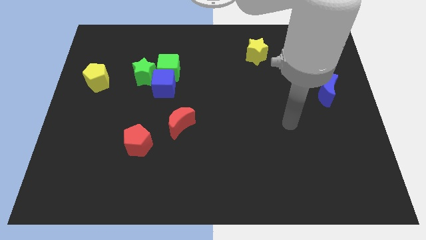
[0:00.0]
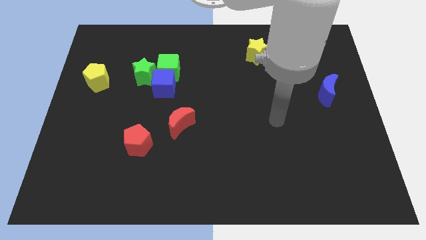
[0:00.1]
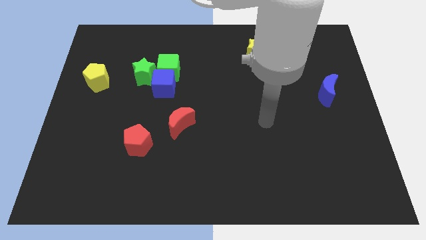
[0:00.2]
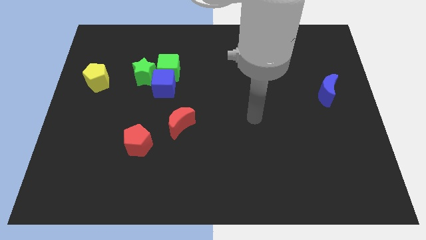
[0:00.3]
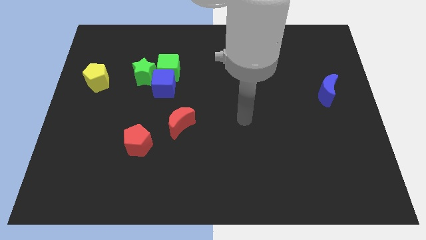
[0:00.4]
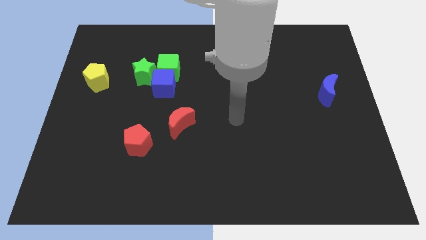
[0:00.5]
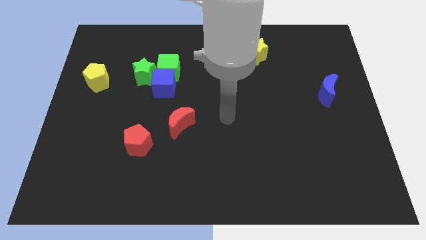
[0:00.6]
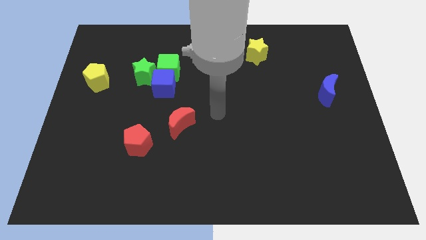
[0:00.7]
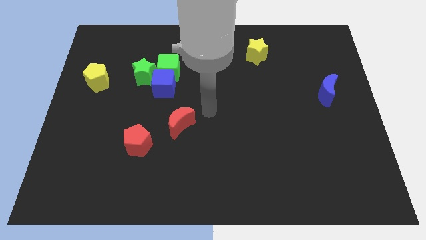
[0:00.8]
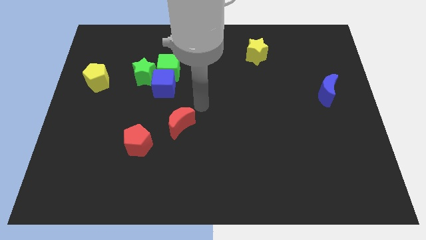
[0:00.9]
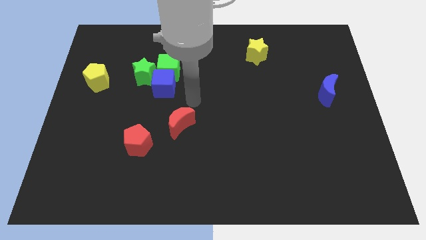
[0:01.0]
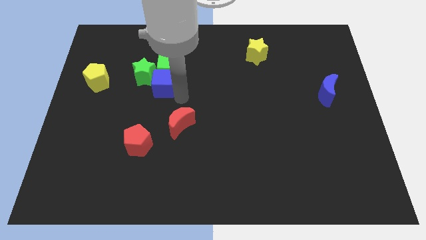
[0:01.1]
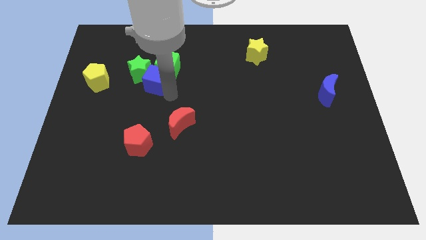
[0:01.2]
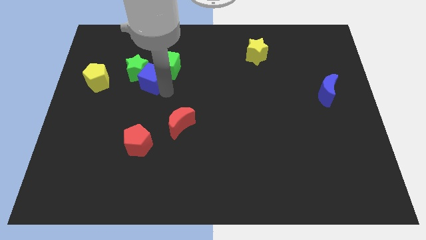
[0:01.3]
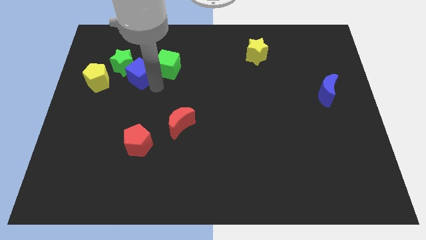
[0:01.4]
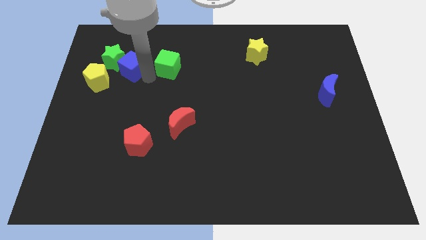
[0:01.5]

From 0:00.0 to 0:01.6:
separate the green cube from the blue cube and green star

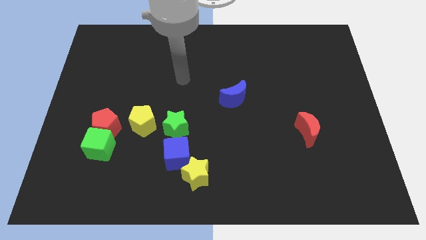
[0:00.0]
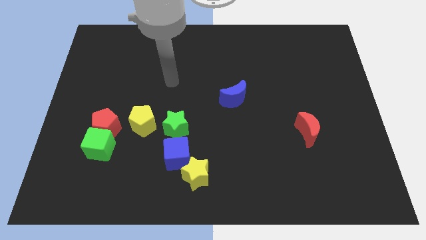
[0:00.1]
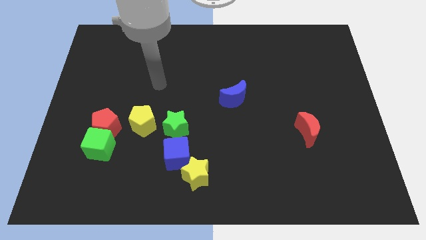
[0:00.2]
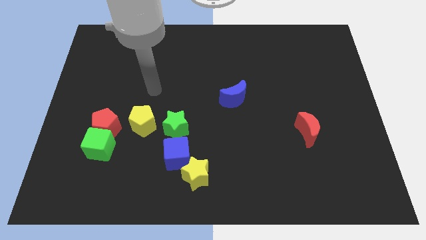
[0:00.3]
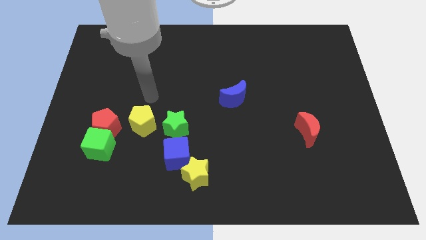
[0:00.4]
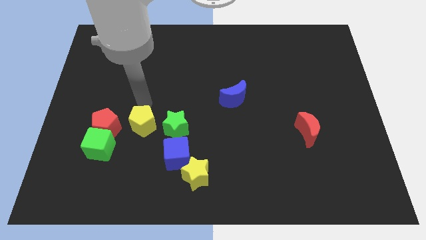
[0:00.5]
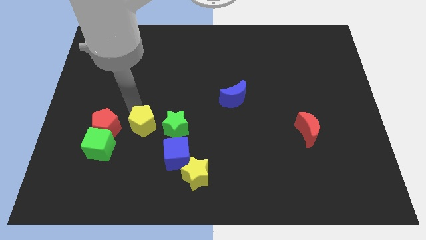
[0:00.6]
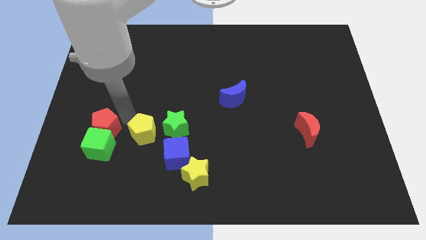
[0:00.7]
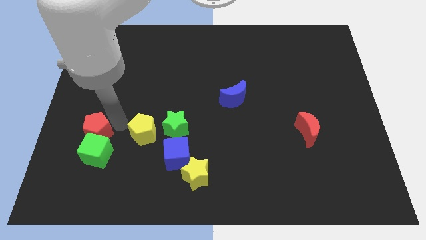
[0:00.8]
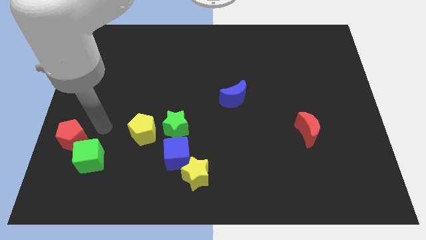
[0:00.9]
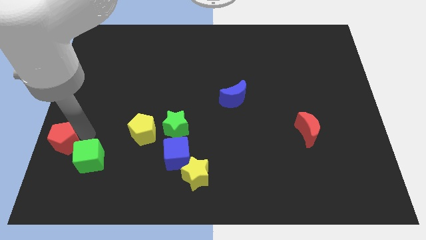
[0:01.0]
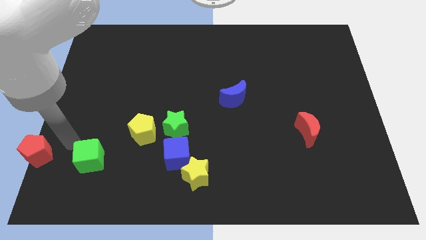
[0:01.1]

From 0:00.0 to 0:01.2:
move the green cube away from the red pentagon

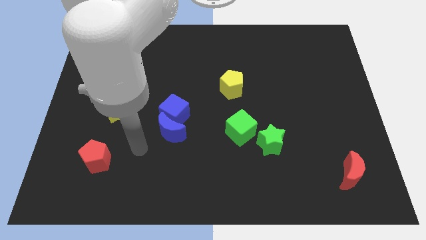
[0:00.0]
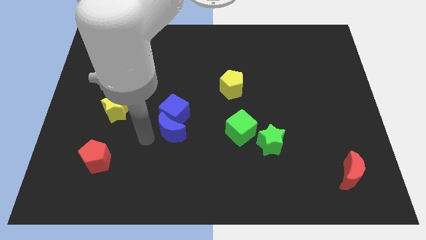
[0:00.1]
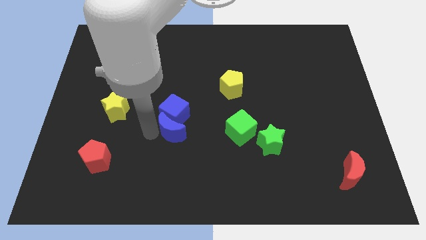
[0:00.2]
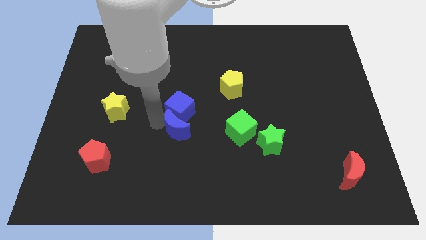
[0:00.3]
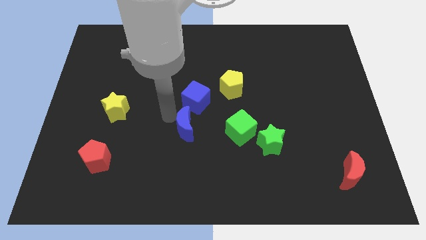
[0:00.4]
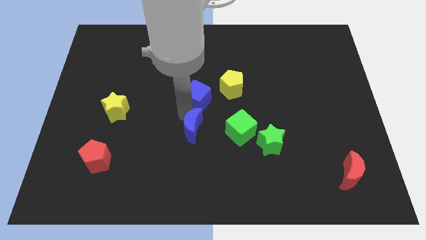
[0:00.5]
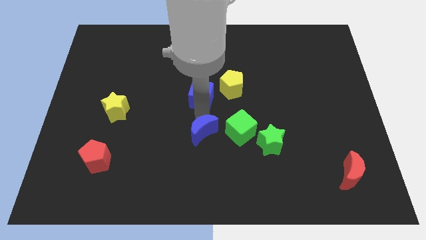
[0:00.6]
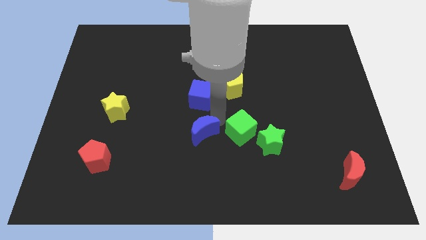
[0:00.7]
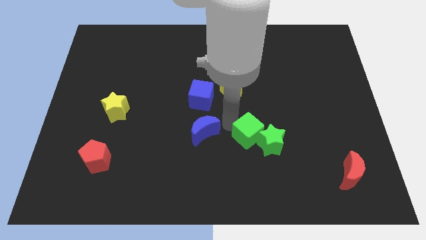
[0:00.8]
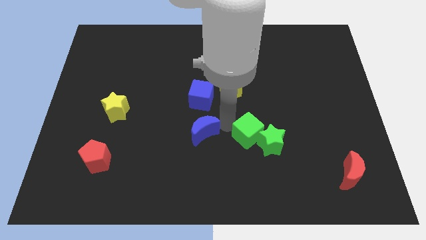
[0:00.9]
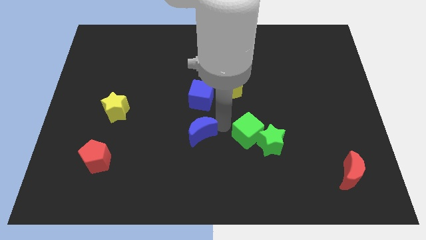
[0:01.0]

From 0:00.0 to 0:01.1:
move the blue moon away from the blue cube

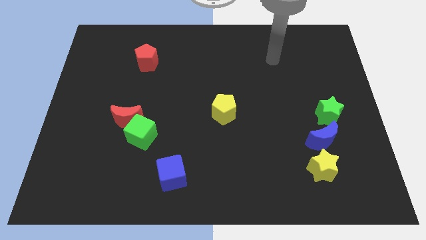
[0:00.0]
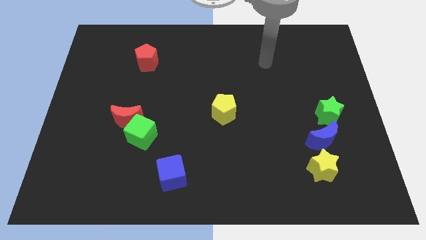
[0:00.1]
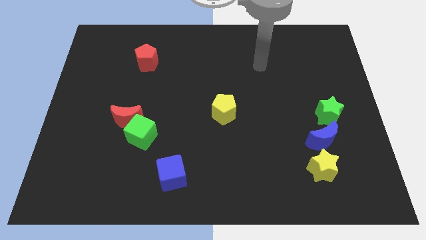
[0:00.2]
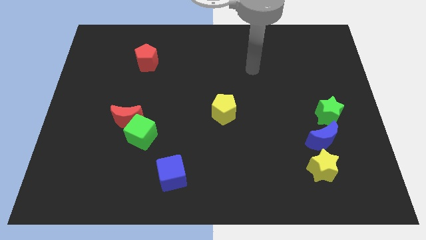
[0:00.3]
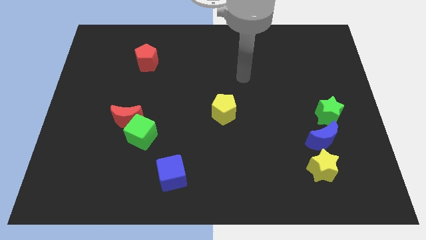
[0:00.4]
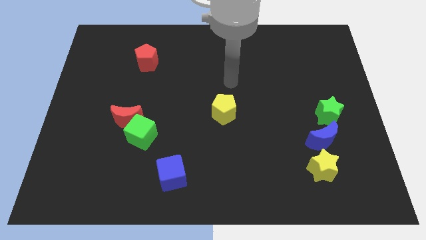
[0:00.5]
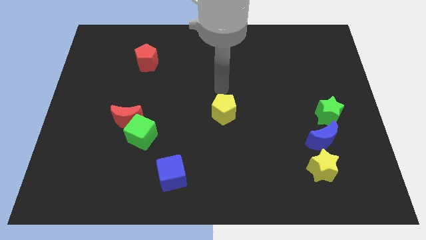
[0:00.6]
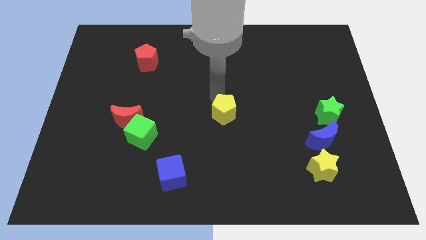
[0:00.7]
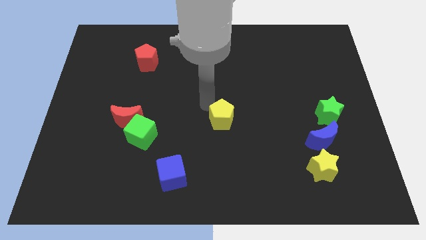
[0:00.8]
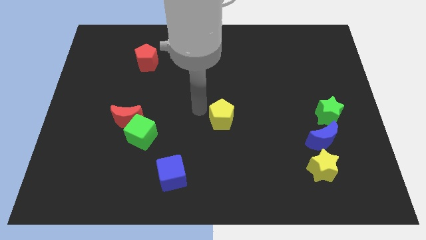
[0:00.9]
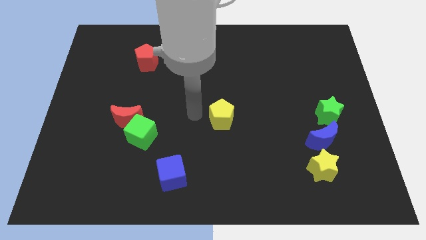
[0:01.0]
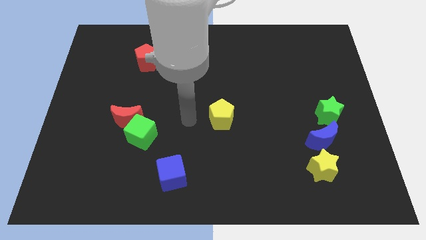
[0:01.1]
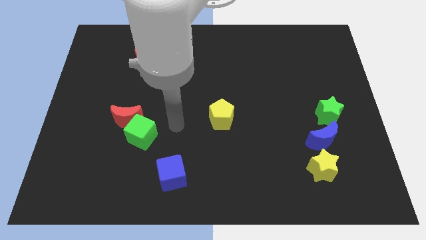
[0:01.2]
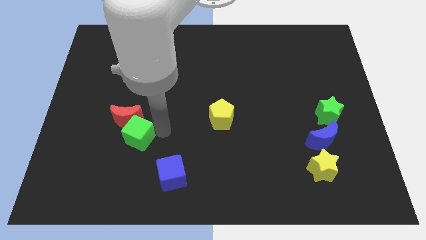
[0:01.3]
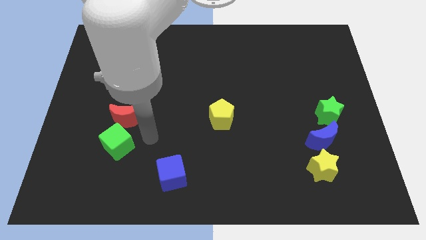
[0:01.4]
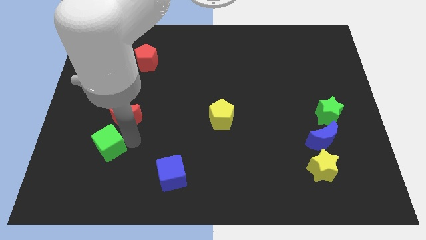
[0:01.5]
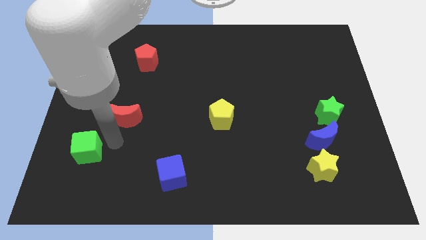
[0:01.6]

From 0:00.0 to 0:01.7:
pull the red moon apart from the green cube

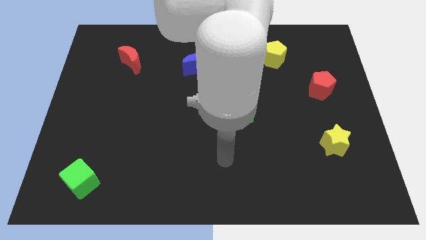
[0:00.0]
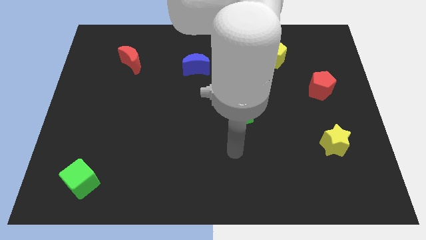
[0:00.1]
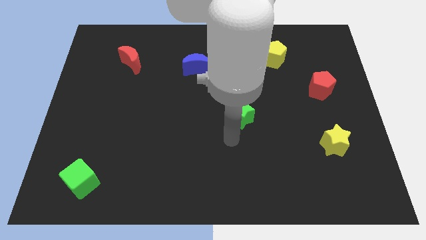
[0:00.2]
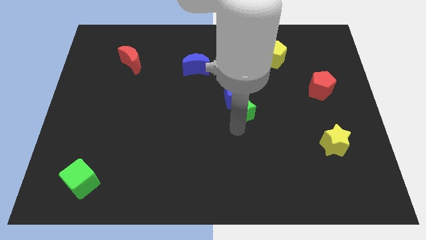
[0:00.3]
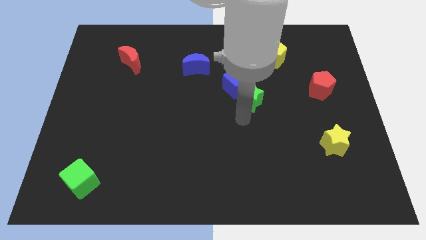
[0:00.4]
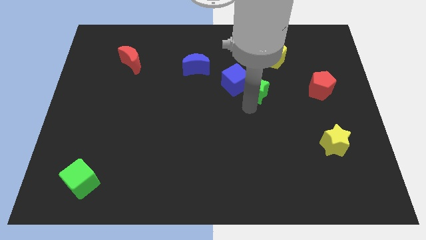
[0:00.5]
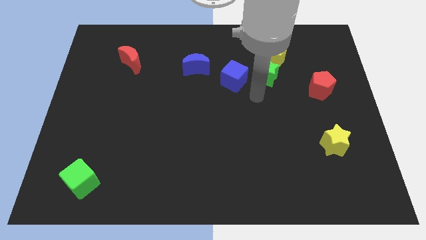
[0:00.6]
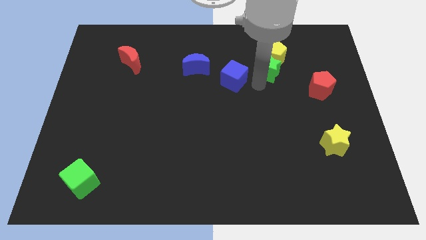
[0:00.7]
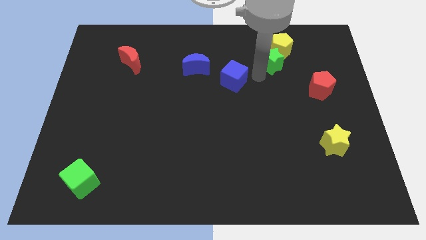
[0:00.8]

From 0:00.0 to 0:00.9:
pull the blue cube apart from the green star

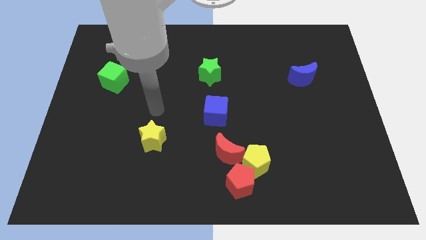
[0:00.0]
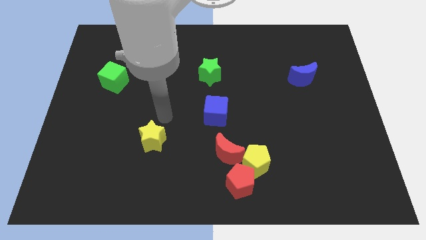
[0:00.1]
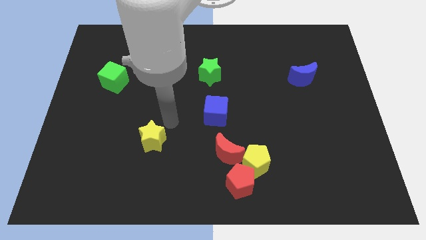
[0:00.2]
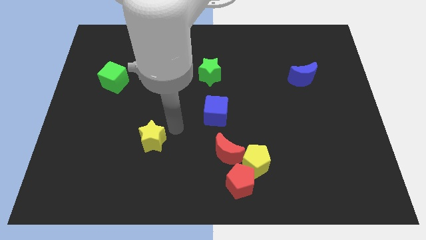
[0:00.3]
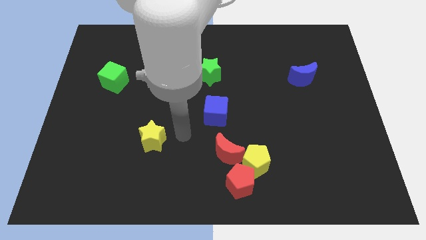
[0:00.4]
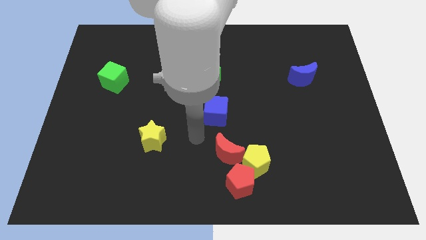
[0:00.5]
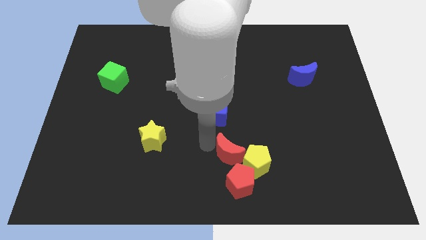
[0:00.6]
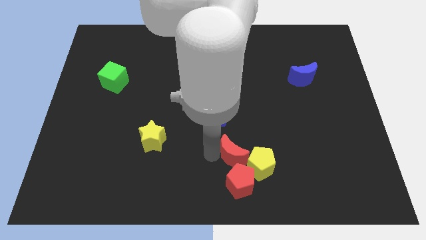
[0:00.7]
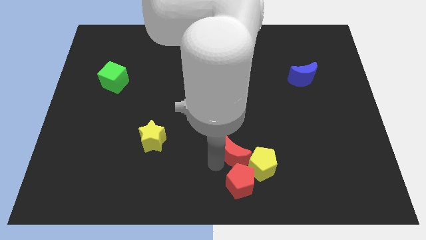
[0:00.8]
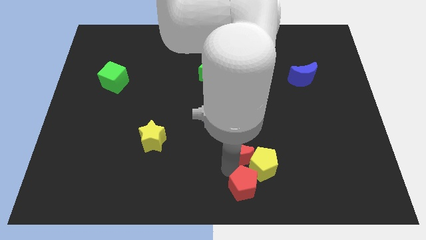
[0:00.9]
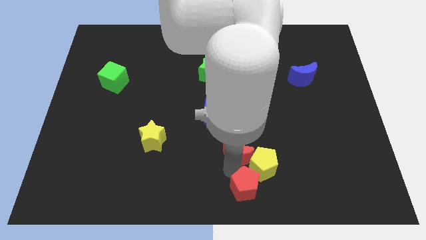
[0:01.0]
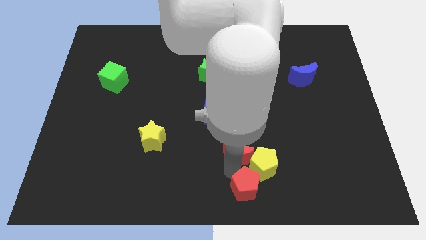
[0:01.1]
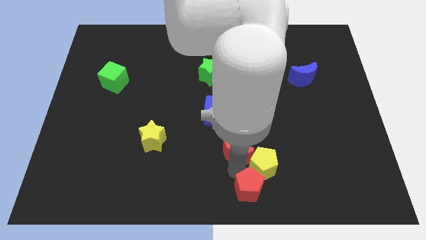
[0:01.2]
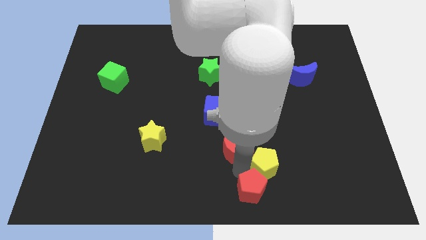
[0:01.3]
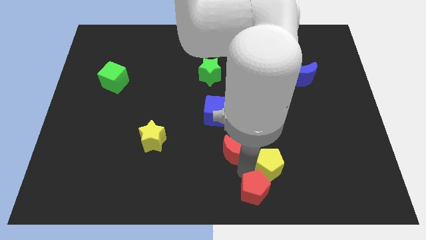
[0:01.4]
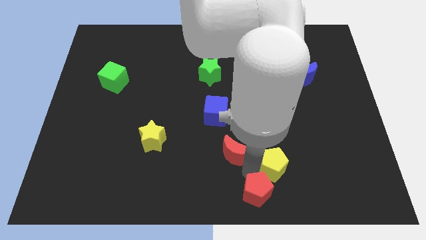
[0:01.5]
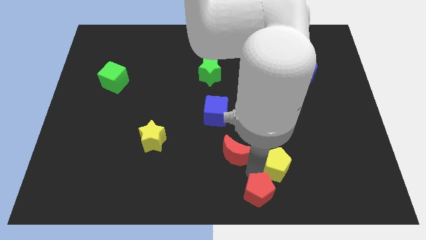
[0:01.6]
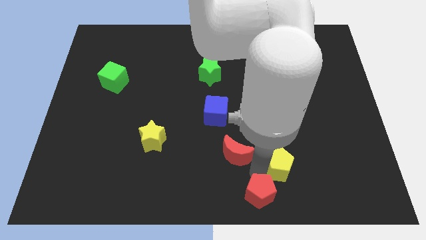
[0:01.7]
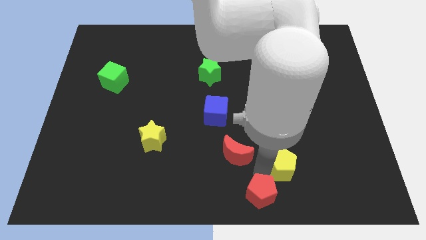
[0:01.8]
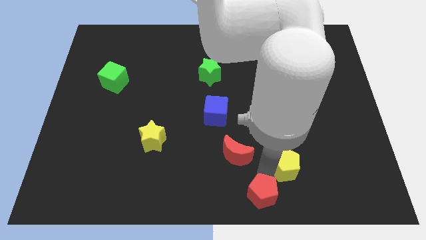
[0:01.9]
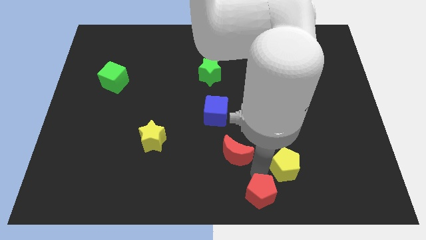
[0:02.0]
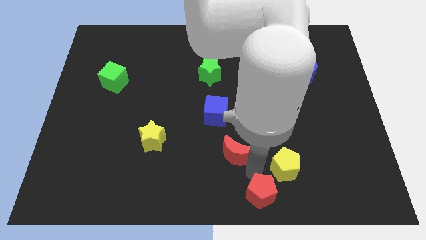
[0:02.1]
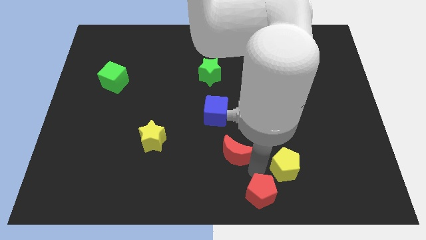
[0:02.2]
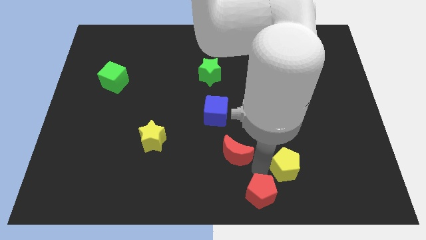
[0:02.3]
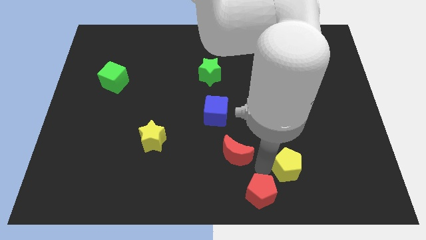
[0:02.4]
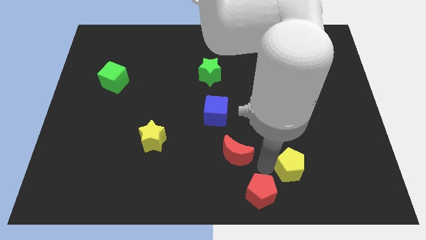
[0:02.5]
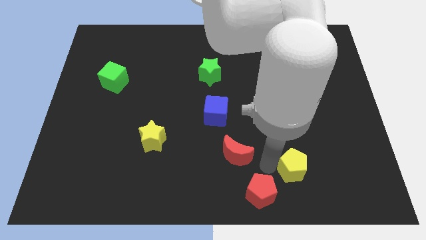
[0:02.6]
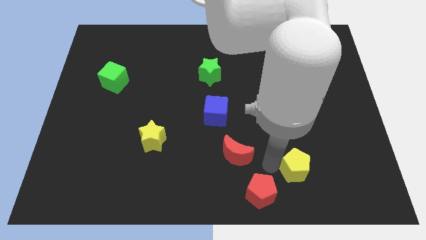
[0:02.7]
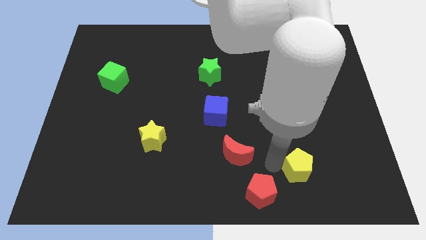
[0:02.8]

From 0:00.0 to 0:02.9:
move the yellow pentagon away from the red pentagon and red moon
